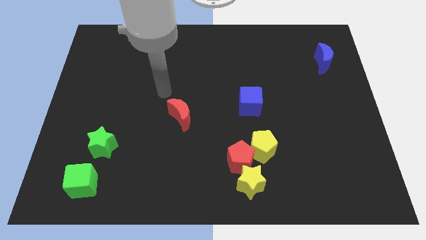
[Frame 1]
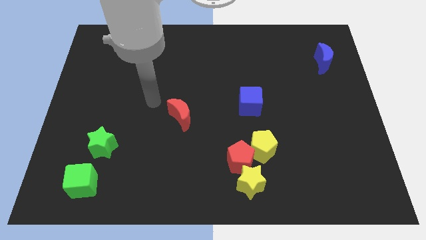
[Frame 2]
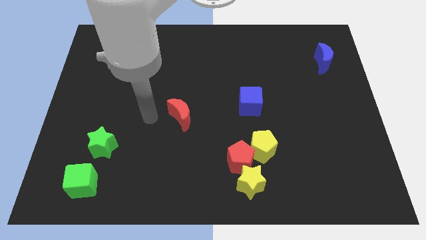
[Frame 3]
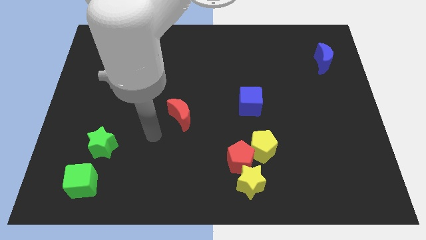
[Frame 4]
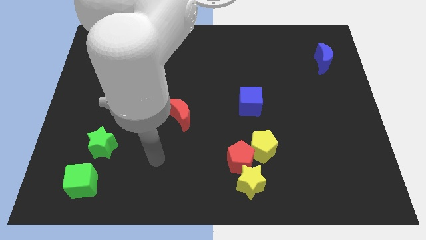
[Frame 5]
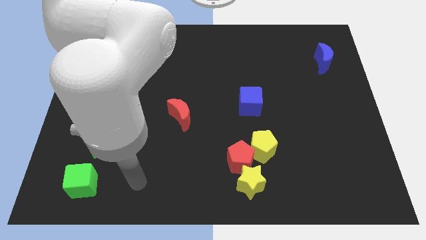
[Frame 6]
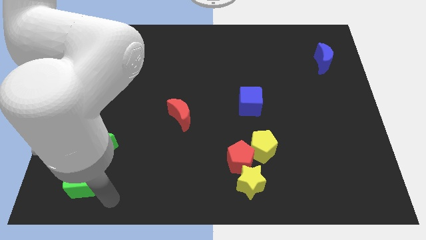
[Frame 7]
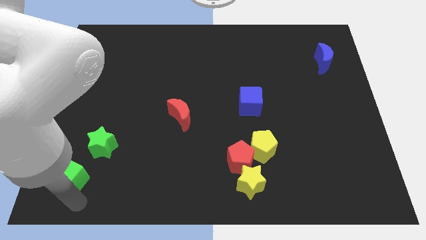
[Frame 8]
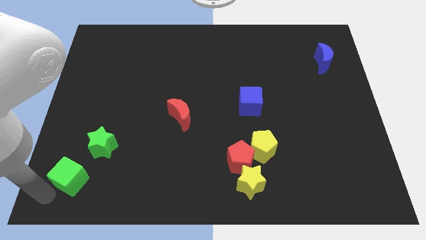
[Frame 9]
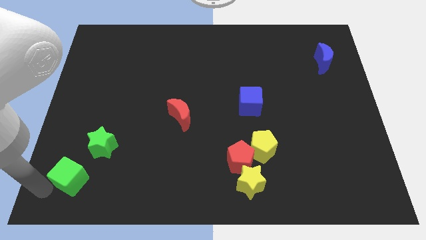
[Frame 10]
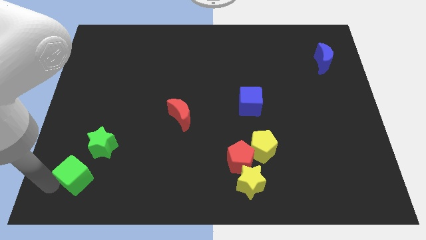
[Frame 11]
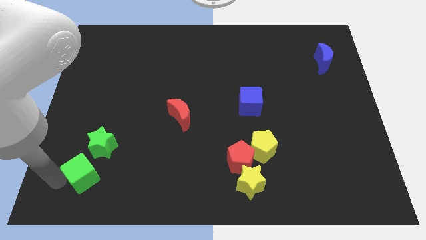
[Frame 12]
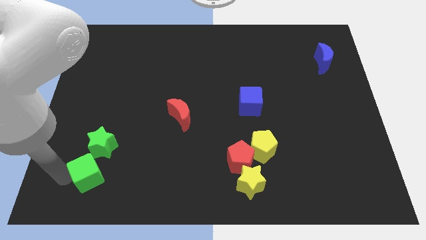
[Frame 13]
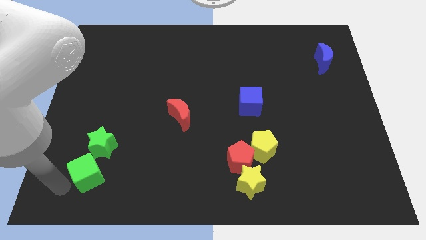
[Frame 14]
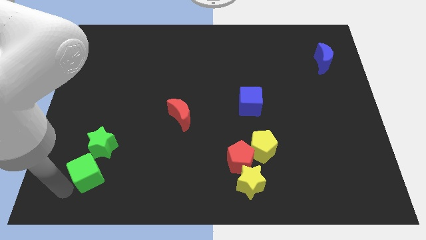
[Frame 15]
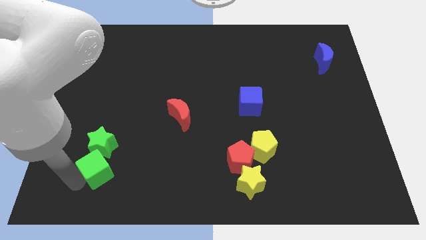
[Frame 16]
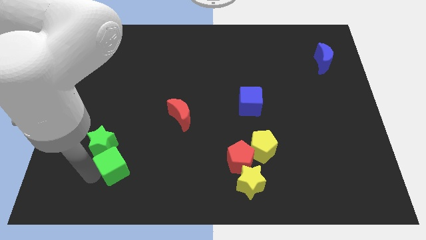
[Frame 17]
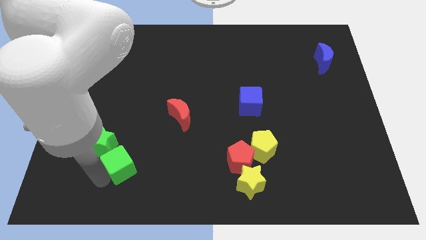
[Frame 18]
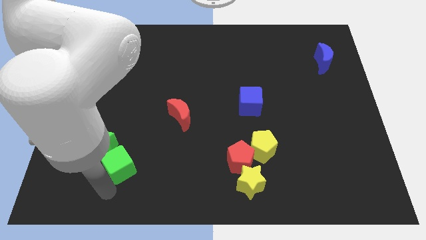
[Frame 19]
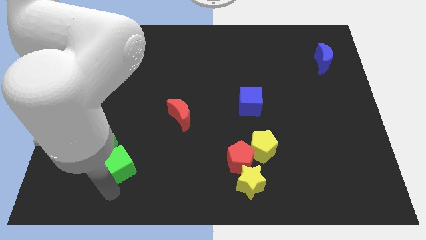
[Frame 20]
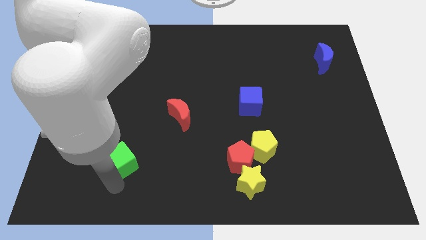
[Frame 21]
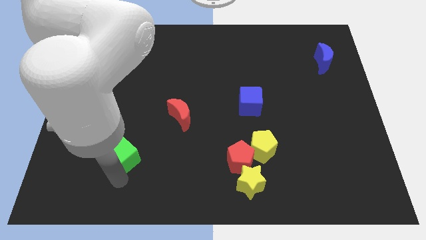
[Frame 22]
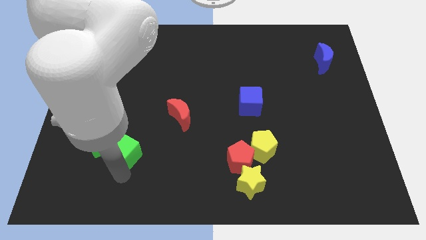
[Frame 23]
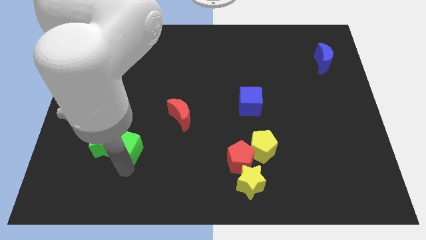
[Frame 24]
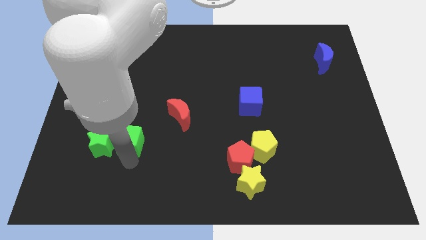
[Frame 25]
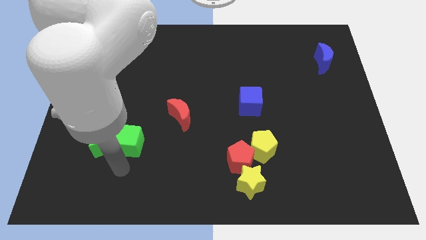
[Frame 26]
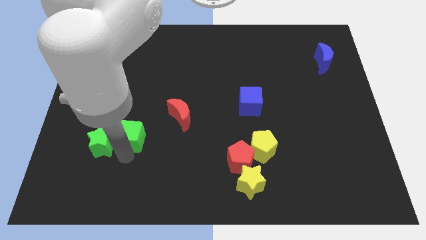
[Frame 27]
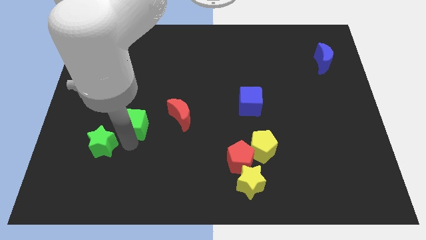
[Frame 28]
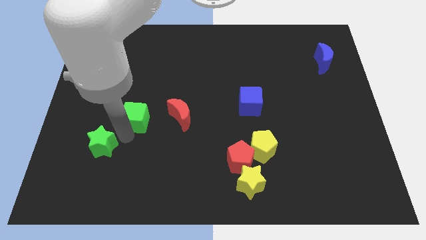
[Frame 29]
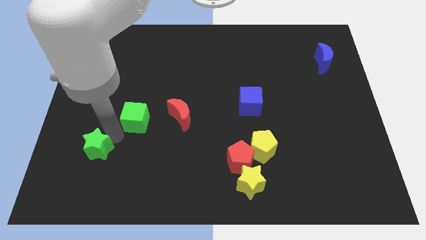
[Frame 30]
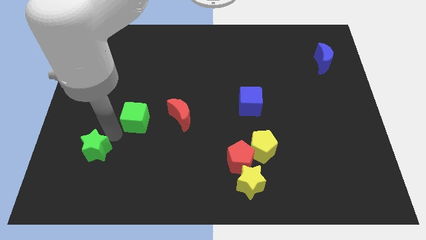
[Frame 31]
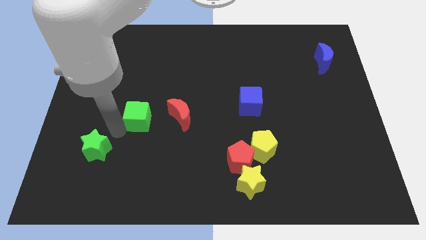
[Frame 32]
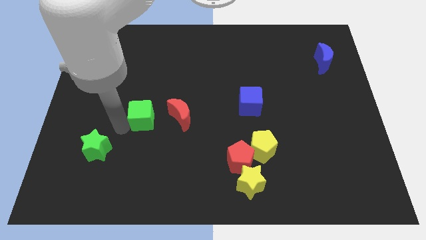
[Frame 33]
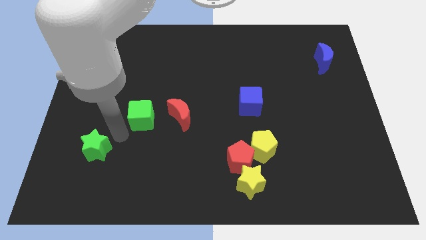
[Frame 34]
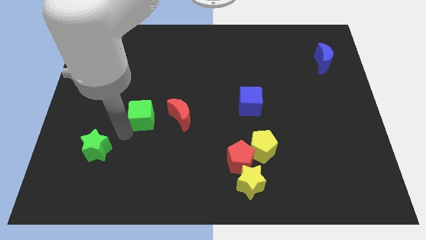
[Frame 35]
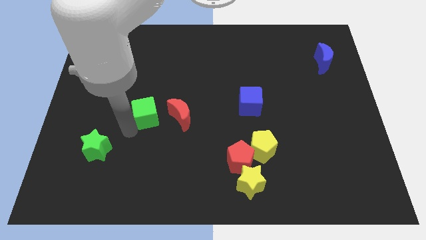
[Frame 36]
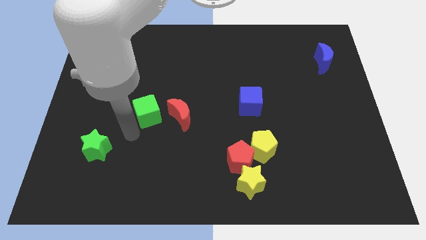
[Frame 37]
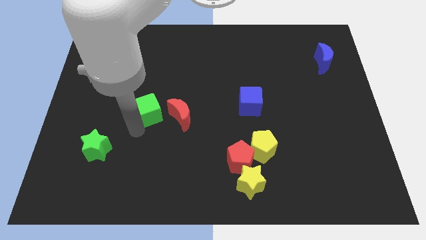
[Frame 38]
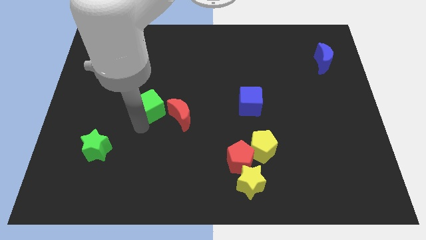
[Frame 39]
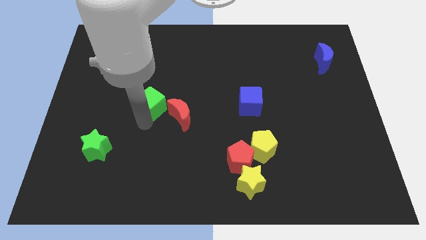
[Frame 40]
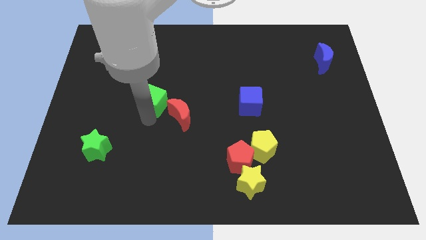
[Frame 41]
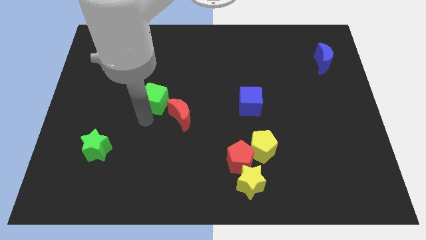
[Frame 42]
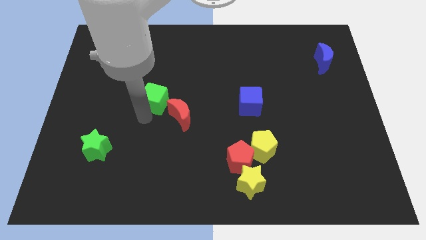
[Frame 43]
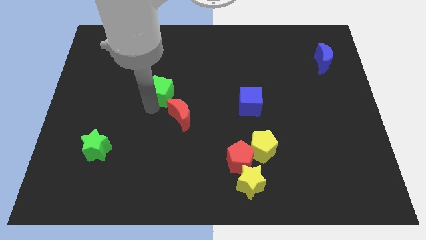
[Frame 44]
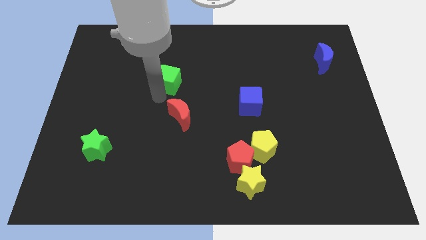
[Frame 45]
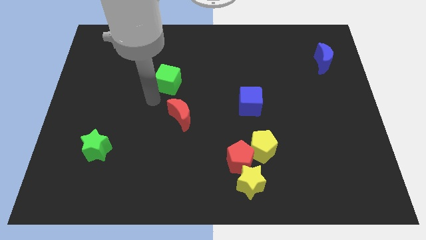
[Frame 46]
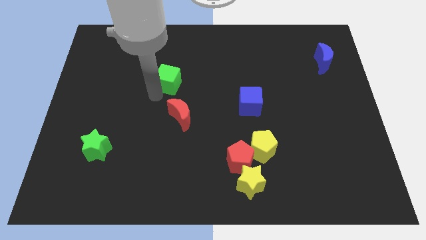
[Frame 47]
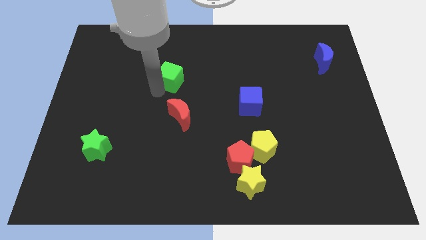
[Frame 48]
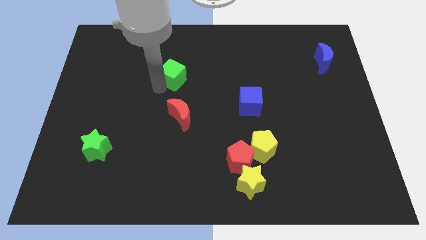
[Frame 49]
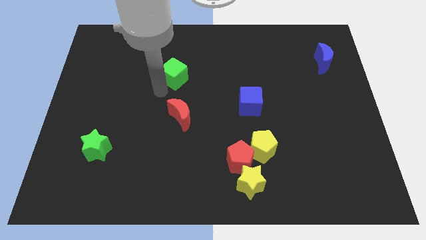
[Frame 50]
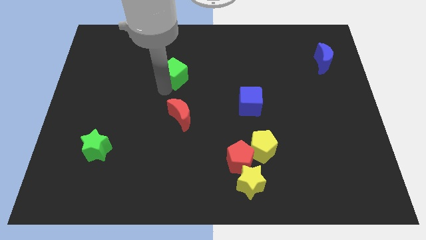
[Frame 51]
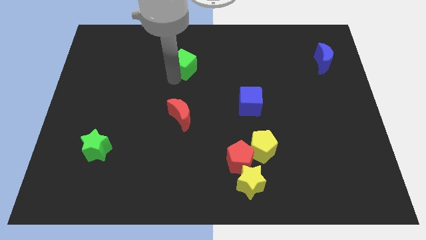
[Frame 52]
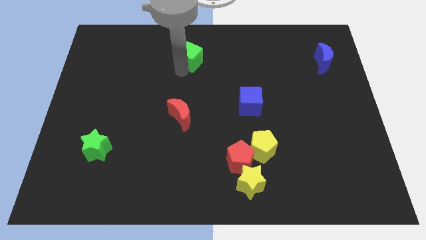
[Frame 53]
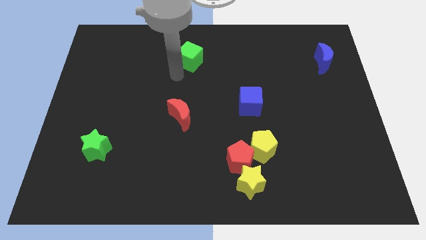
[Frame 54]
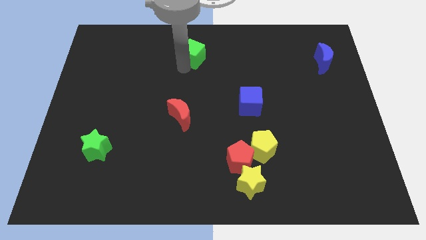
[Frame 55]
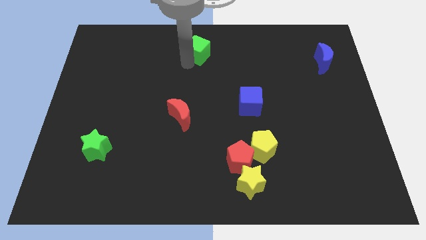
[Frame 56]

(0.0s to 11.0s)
put the green cube to the towards your base
